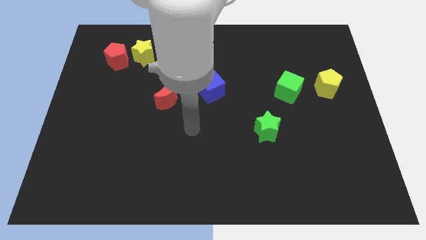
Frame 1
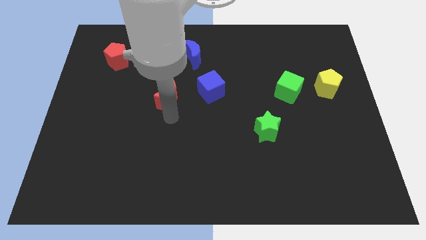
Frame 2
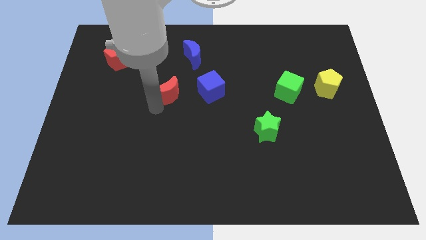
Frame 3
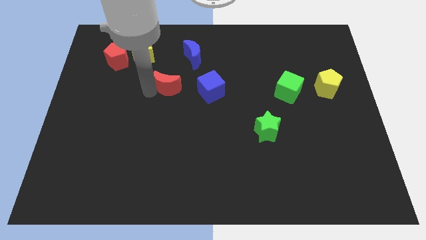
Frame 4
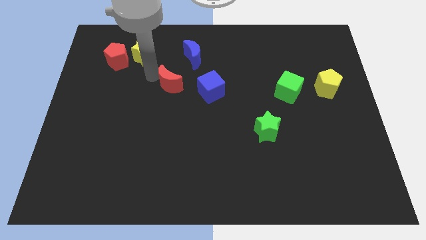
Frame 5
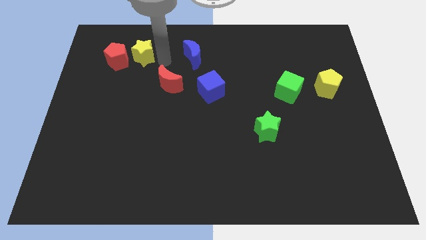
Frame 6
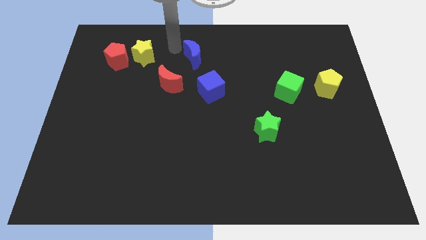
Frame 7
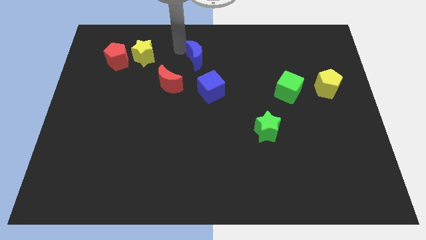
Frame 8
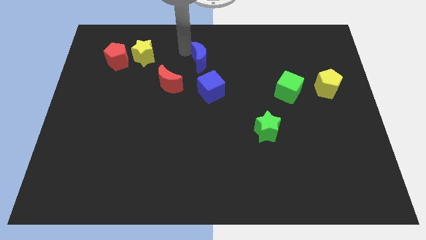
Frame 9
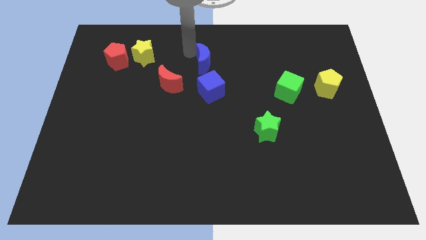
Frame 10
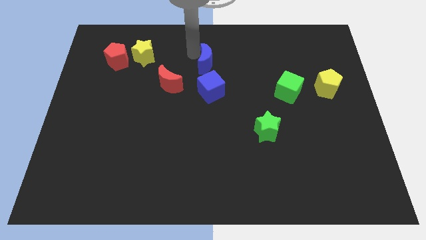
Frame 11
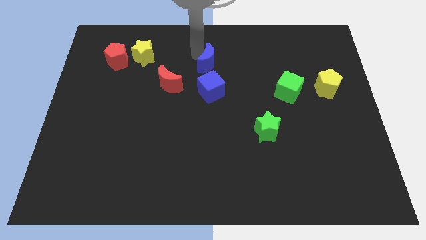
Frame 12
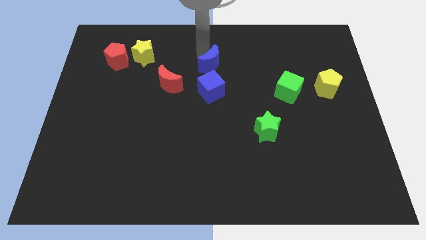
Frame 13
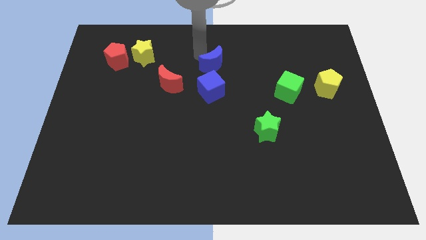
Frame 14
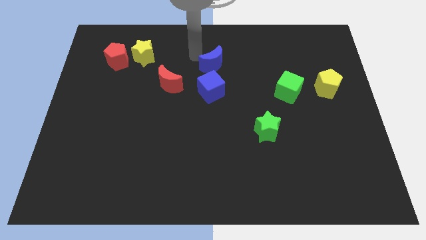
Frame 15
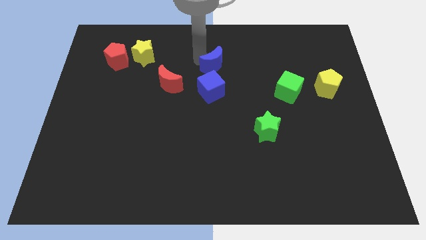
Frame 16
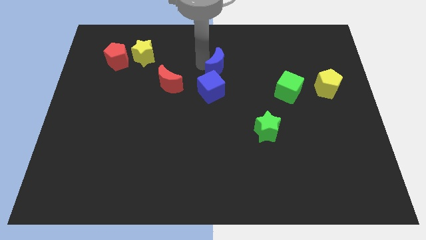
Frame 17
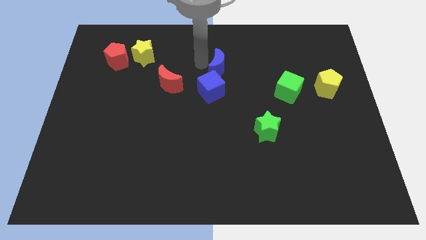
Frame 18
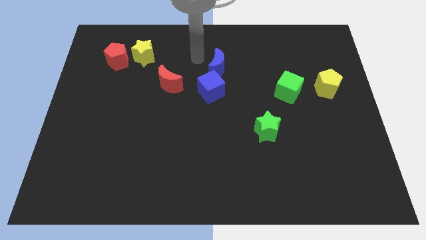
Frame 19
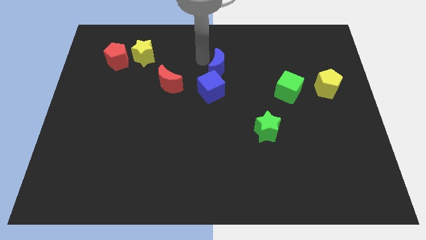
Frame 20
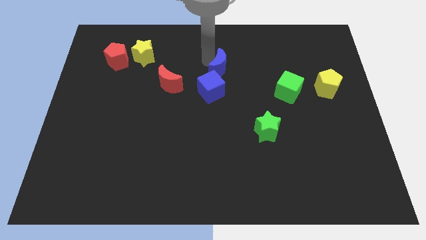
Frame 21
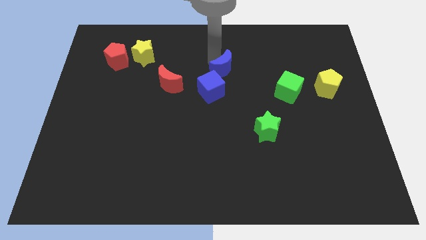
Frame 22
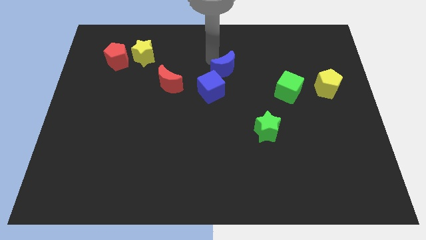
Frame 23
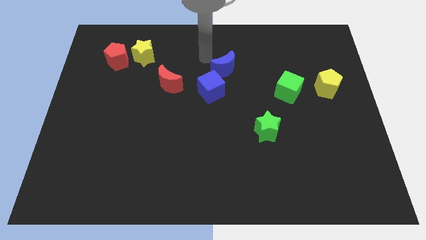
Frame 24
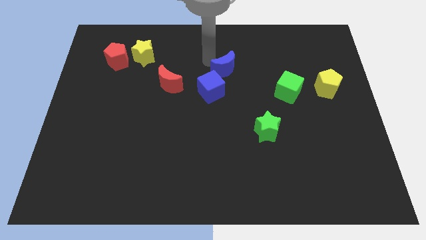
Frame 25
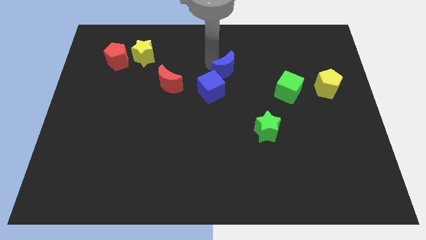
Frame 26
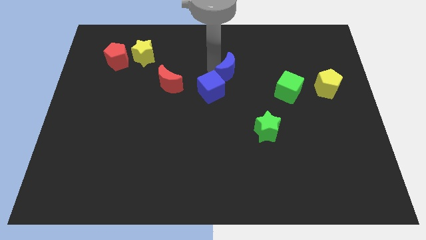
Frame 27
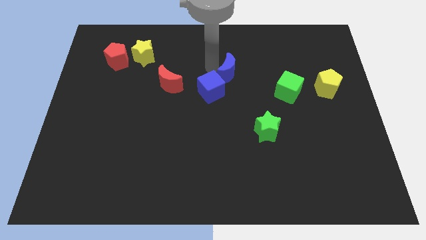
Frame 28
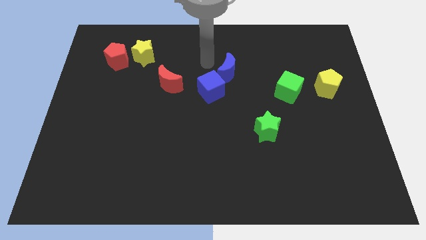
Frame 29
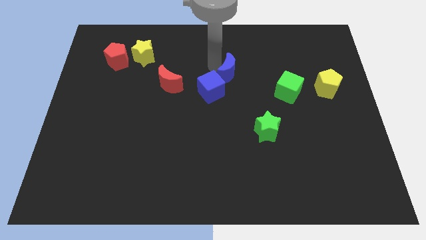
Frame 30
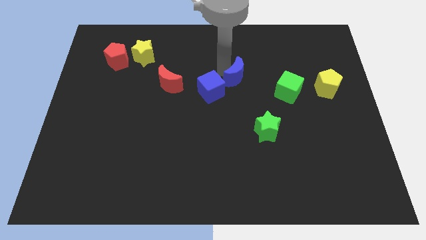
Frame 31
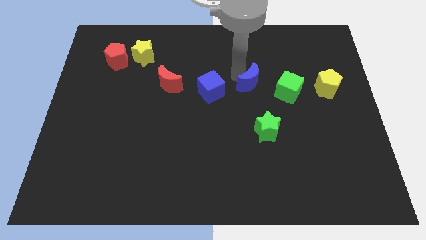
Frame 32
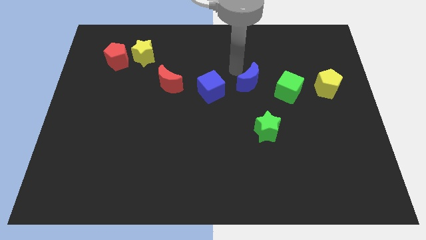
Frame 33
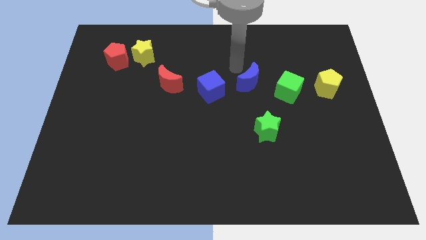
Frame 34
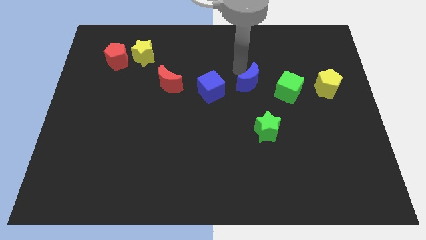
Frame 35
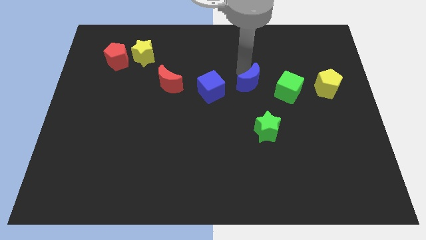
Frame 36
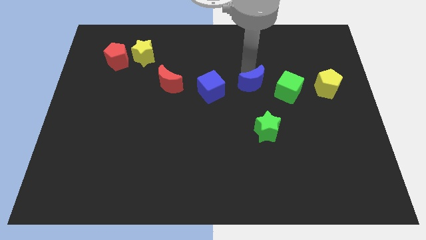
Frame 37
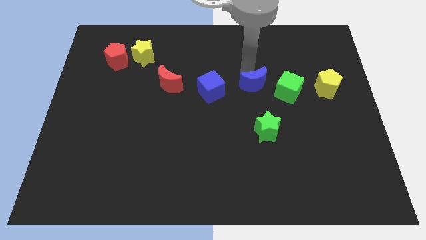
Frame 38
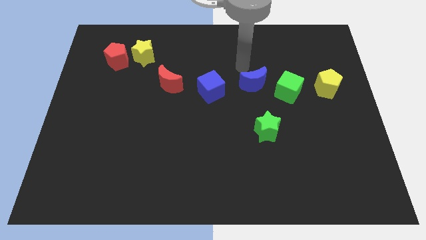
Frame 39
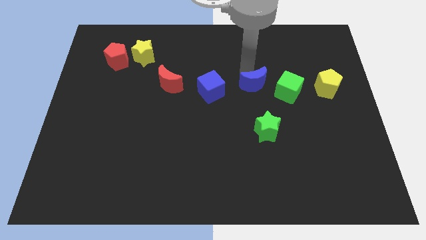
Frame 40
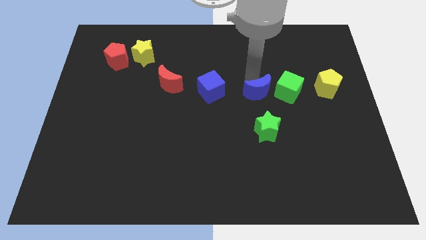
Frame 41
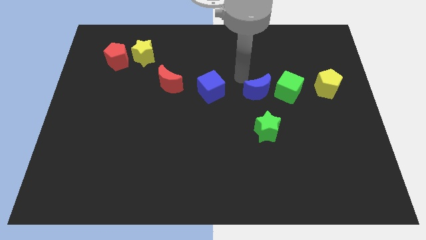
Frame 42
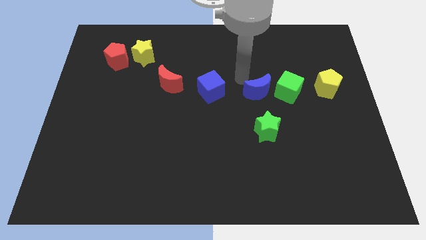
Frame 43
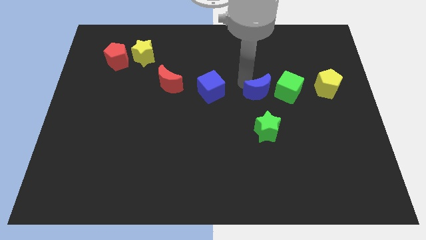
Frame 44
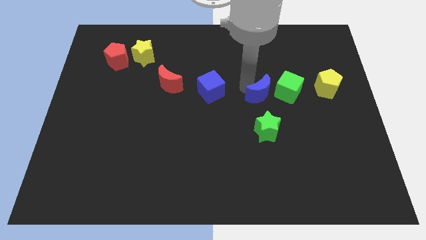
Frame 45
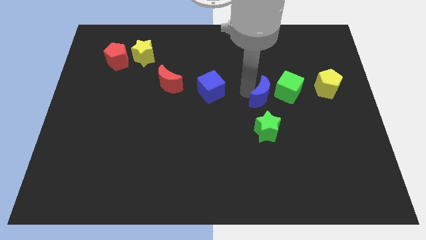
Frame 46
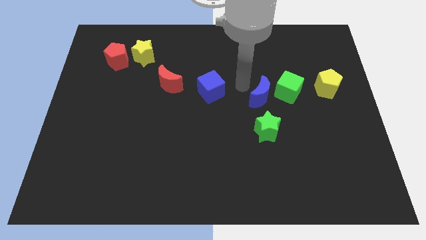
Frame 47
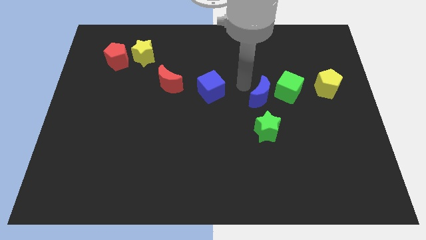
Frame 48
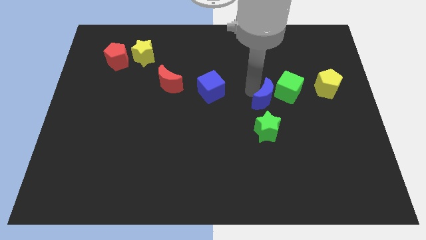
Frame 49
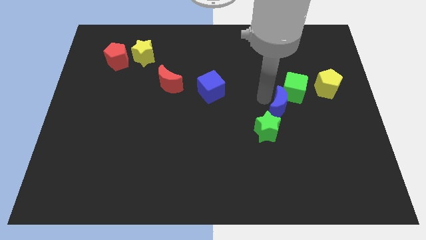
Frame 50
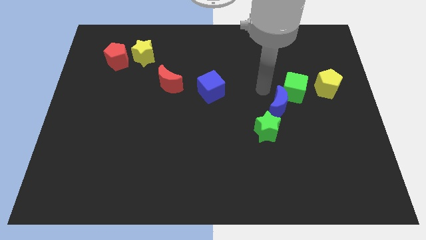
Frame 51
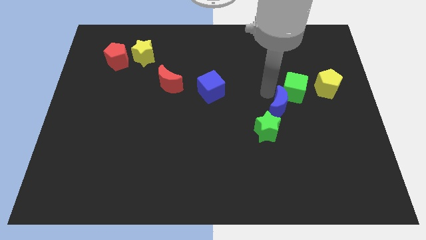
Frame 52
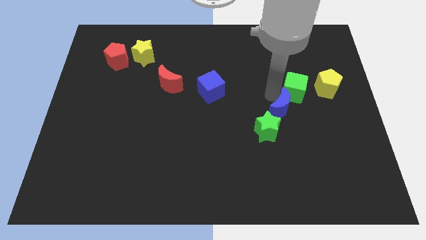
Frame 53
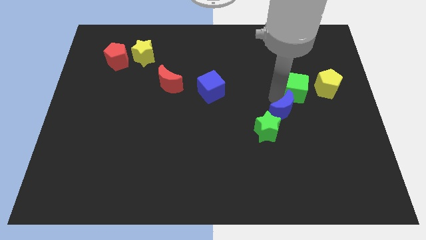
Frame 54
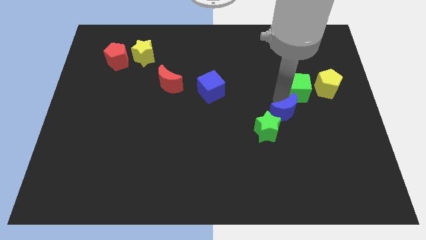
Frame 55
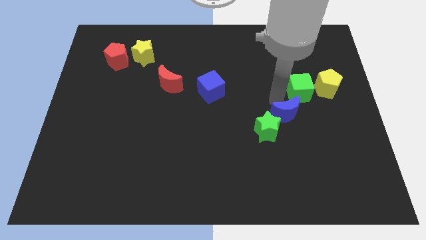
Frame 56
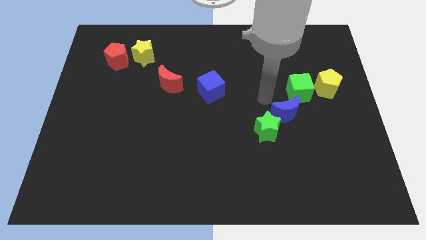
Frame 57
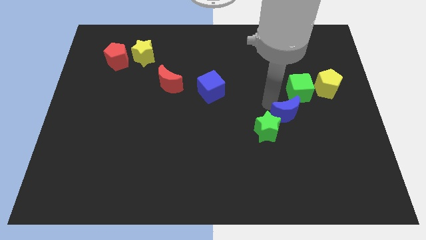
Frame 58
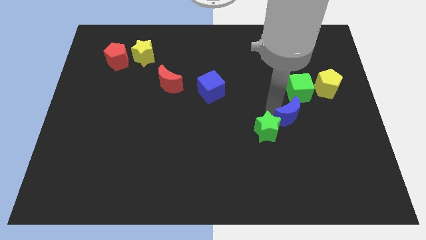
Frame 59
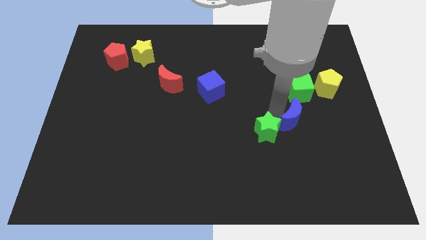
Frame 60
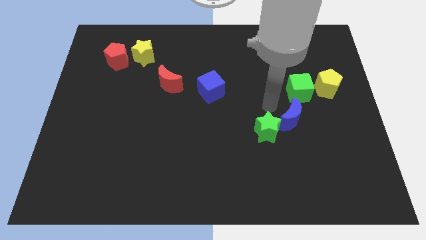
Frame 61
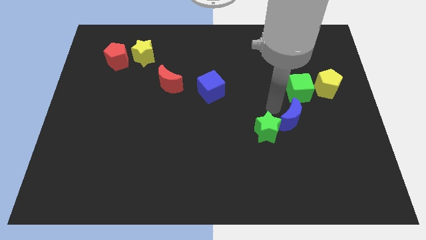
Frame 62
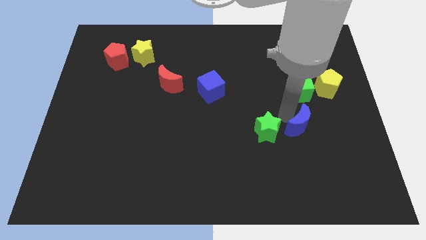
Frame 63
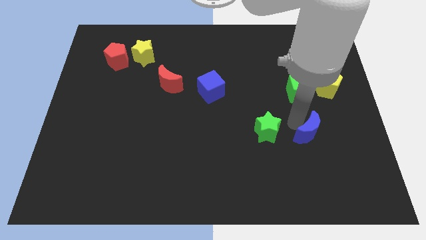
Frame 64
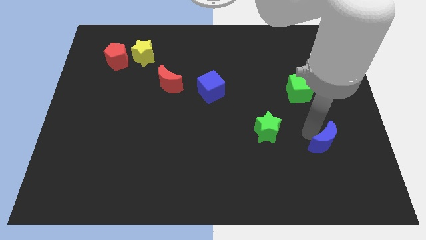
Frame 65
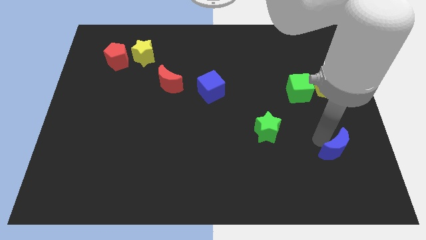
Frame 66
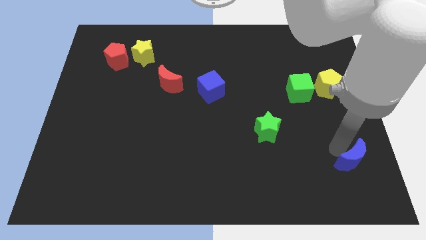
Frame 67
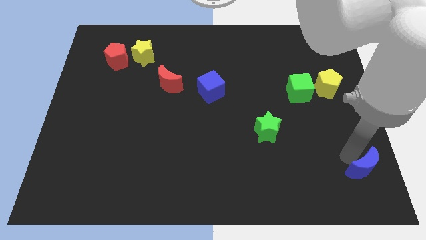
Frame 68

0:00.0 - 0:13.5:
push the blue moon to the lower right corner
